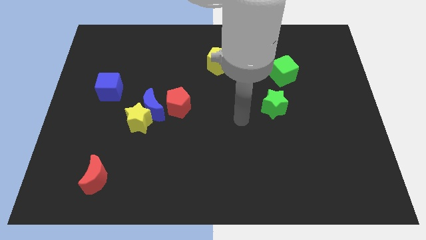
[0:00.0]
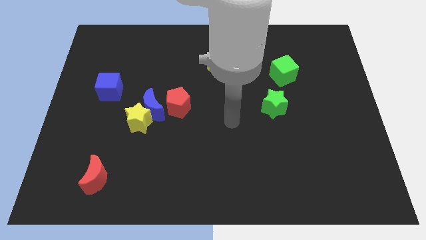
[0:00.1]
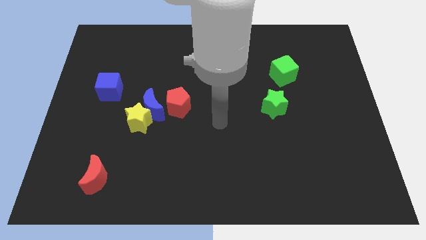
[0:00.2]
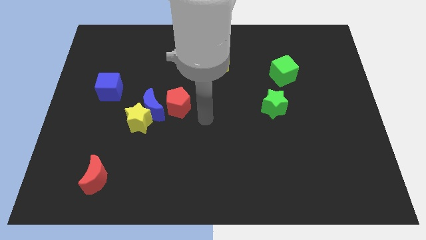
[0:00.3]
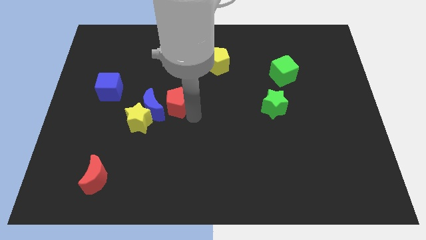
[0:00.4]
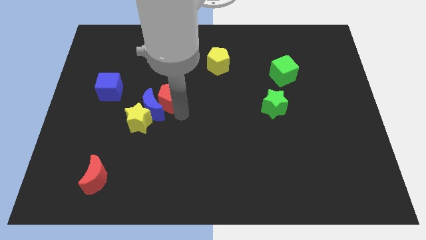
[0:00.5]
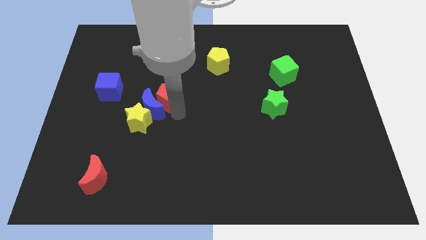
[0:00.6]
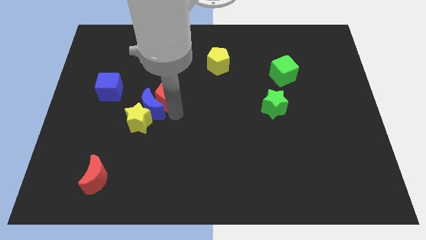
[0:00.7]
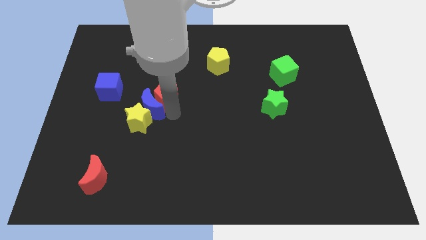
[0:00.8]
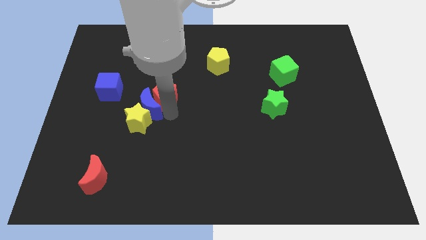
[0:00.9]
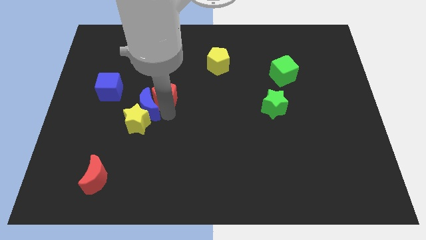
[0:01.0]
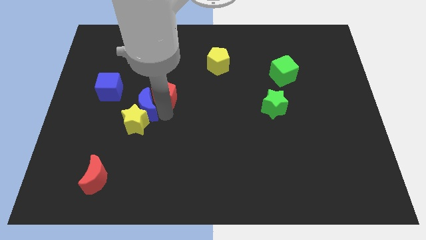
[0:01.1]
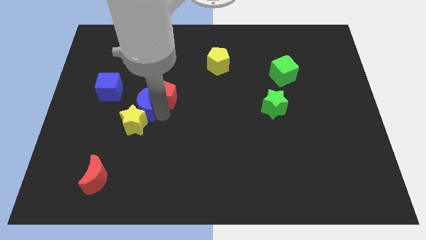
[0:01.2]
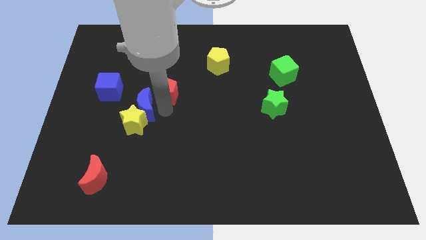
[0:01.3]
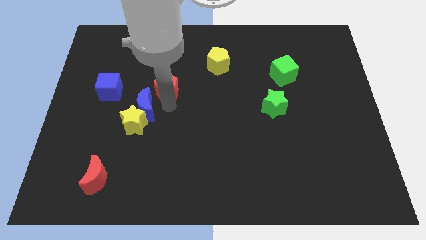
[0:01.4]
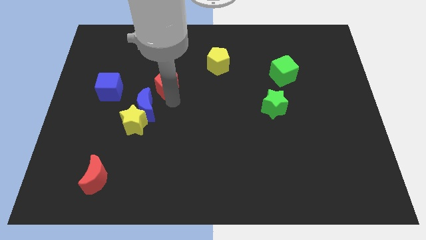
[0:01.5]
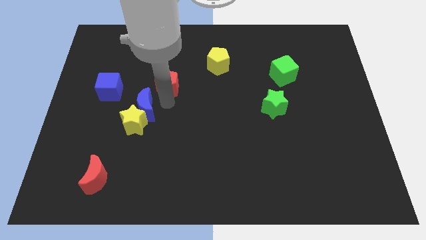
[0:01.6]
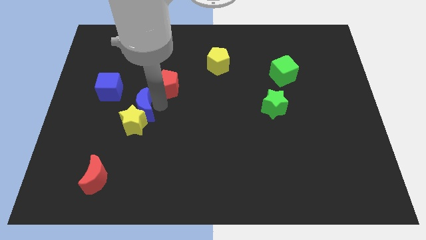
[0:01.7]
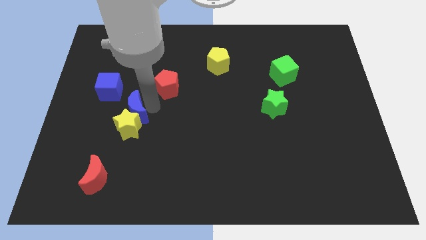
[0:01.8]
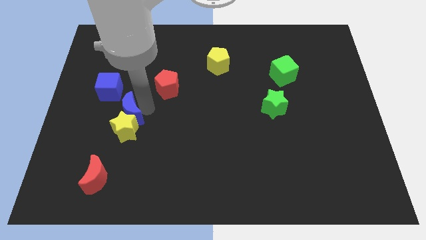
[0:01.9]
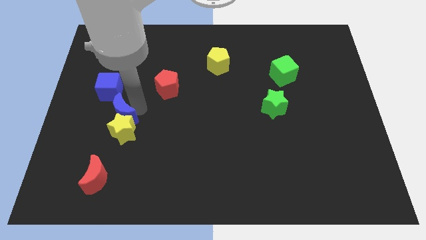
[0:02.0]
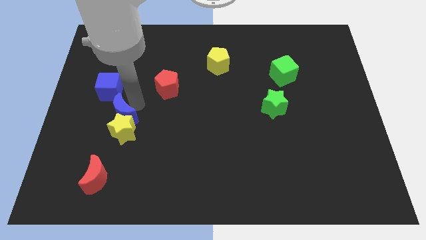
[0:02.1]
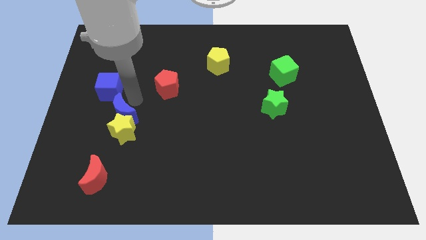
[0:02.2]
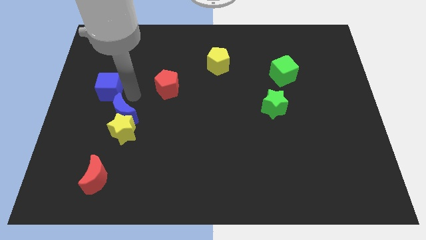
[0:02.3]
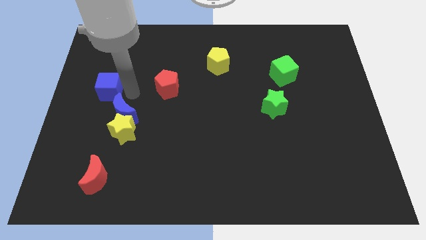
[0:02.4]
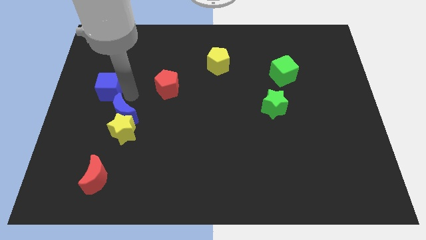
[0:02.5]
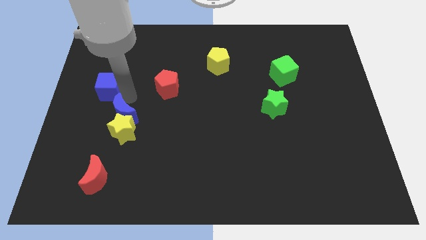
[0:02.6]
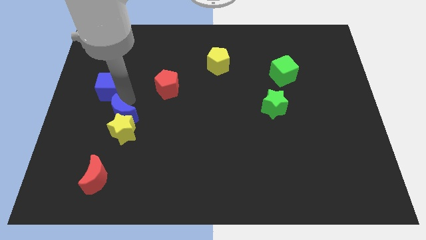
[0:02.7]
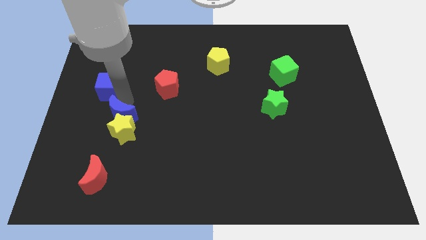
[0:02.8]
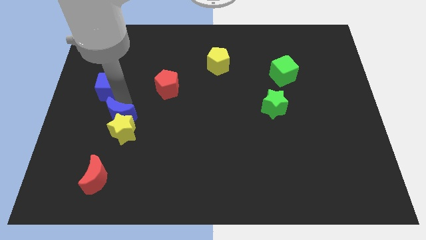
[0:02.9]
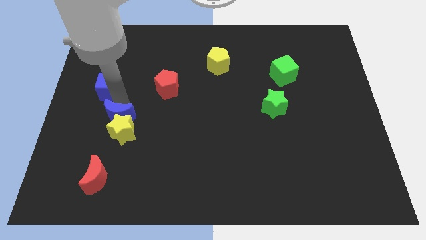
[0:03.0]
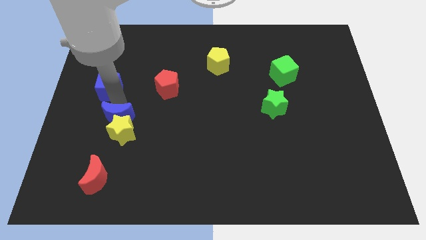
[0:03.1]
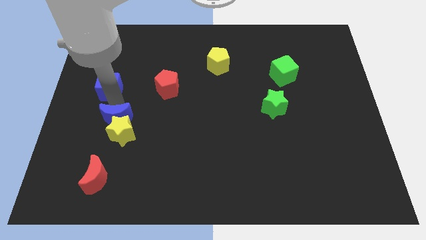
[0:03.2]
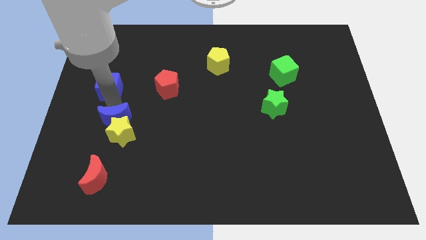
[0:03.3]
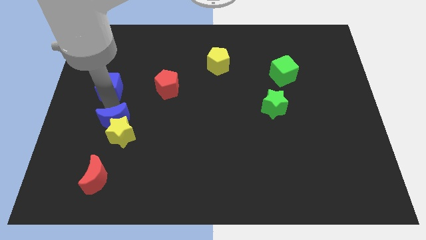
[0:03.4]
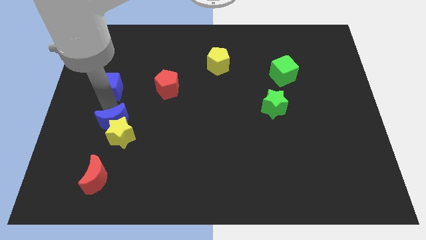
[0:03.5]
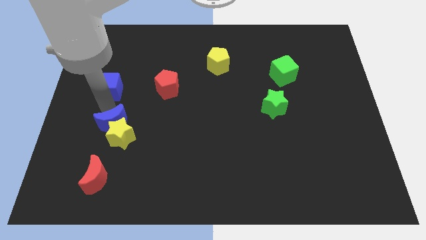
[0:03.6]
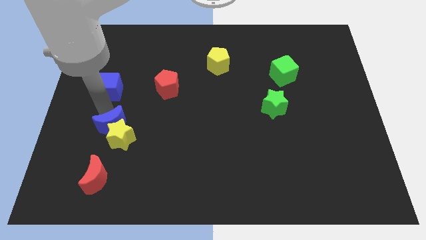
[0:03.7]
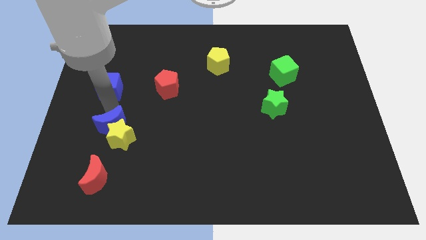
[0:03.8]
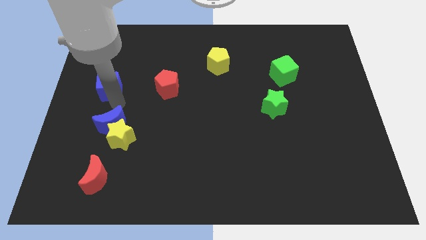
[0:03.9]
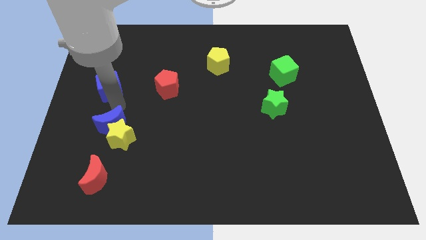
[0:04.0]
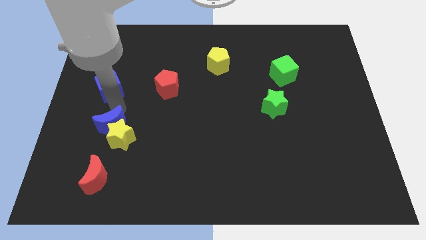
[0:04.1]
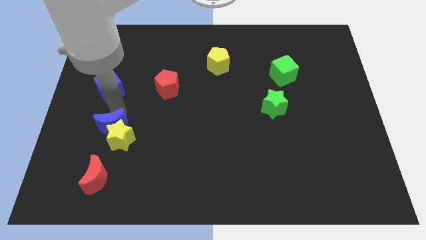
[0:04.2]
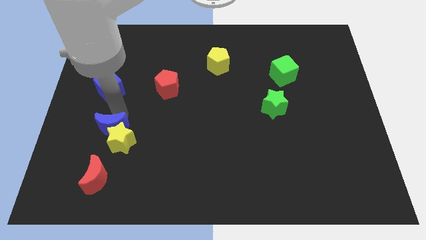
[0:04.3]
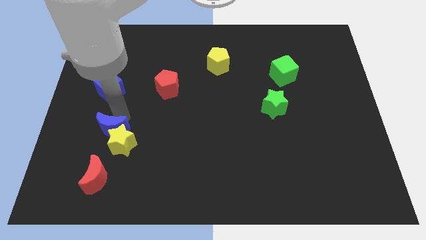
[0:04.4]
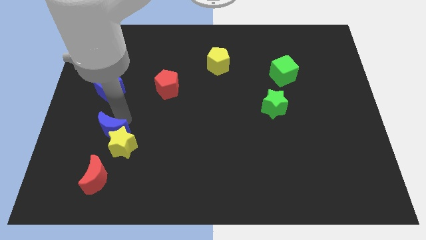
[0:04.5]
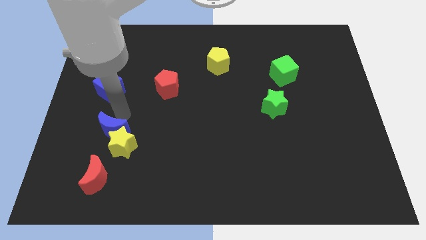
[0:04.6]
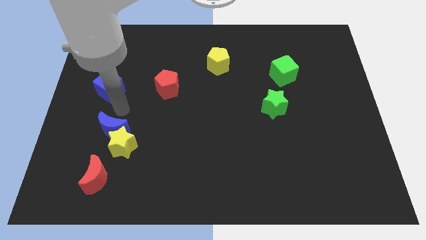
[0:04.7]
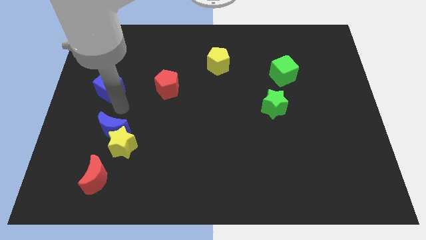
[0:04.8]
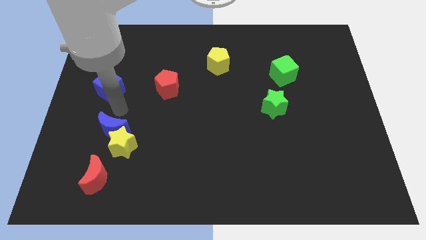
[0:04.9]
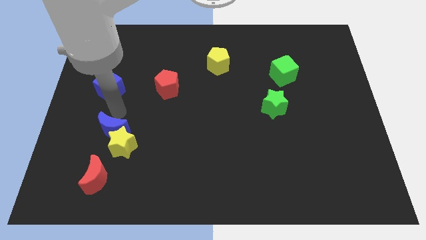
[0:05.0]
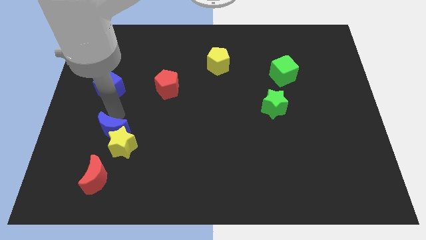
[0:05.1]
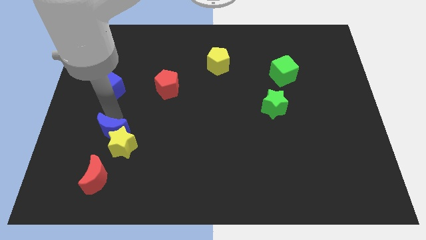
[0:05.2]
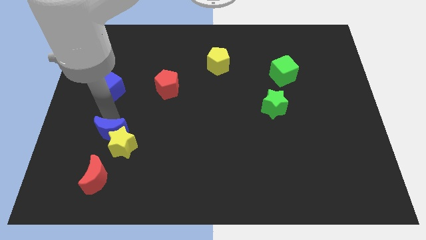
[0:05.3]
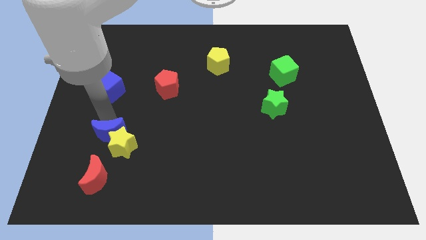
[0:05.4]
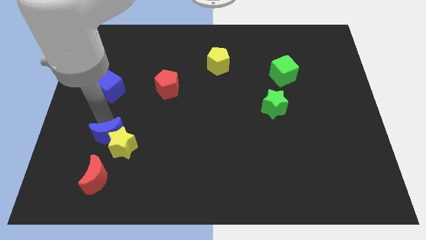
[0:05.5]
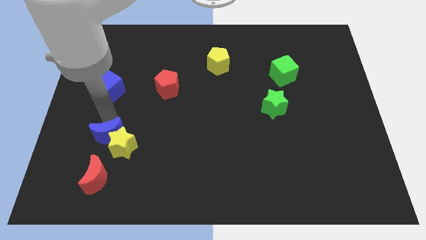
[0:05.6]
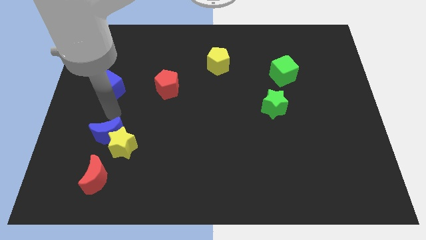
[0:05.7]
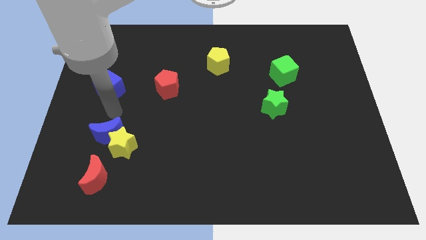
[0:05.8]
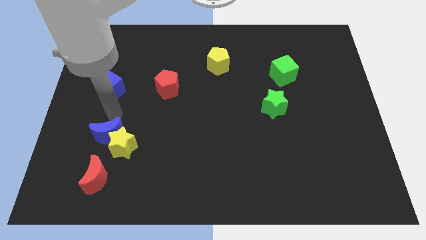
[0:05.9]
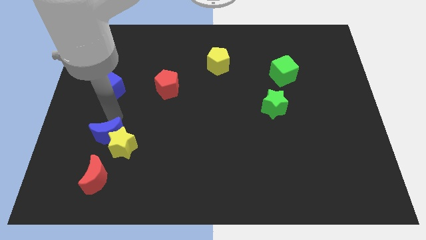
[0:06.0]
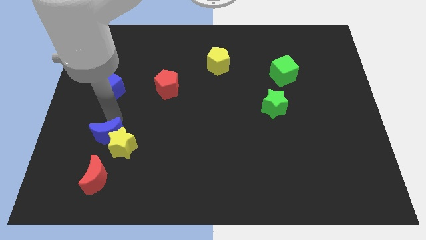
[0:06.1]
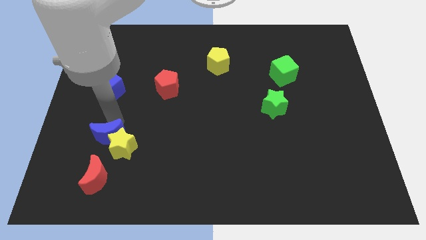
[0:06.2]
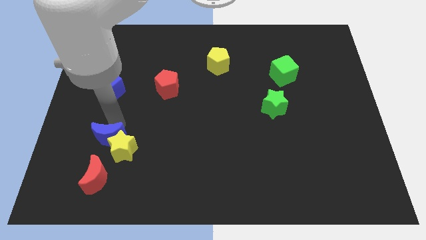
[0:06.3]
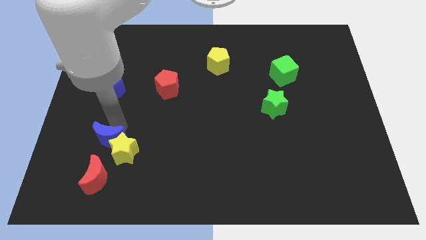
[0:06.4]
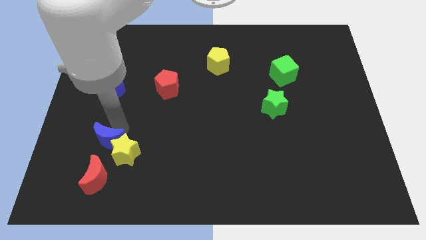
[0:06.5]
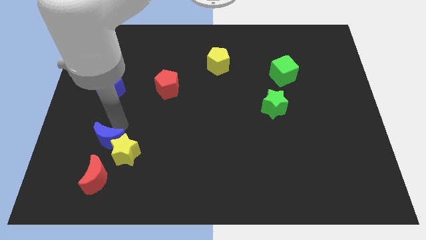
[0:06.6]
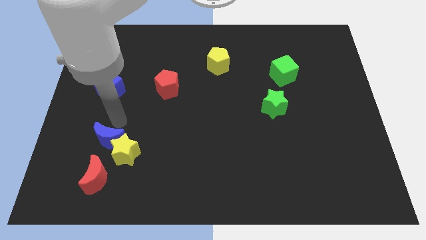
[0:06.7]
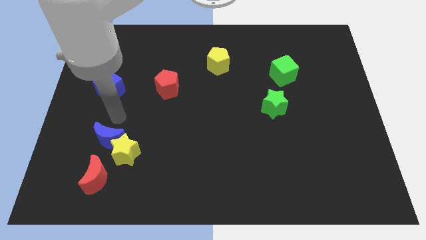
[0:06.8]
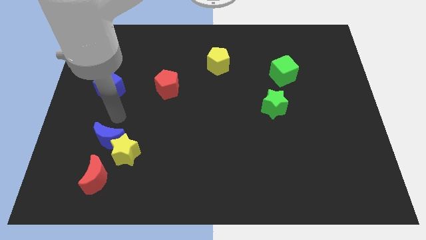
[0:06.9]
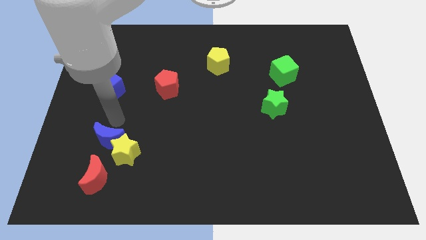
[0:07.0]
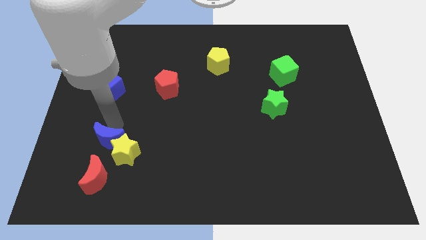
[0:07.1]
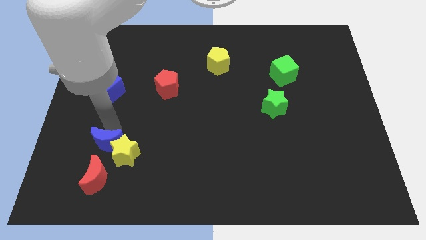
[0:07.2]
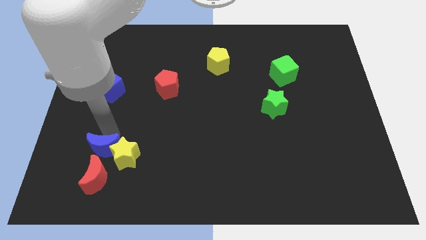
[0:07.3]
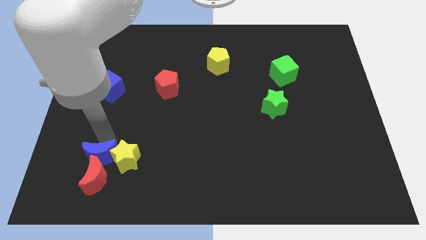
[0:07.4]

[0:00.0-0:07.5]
push the blue moon next to the red moon
